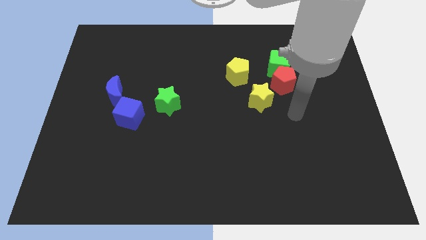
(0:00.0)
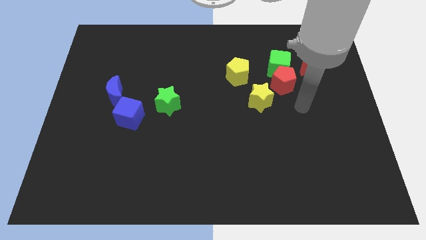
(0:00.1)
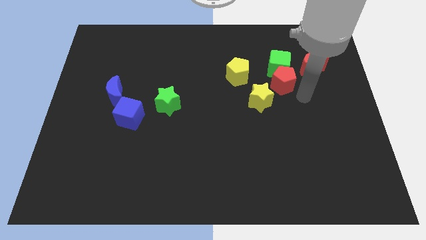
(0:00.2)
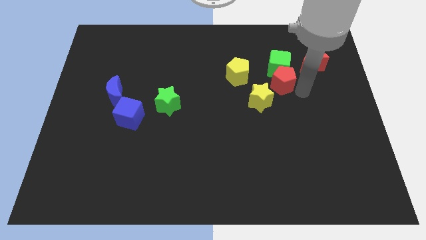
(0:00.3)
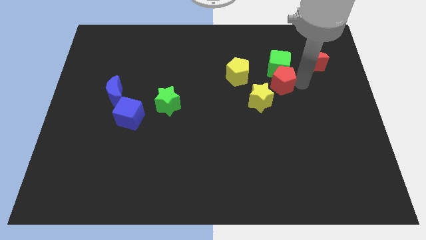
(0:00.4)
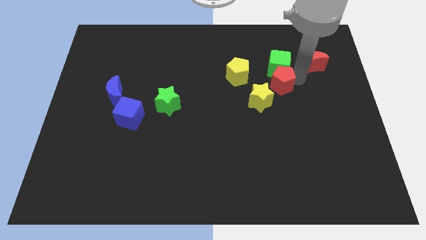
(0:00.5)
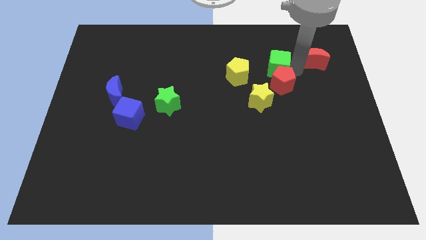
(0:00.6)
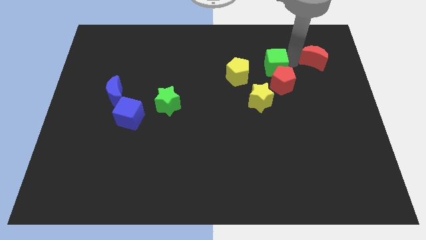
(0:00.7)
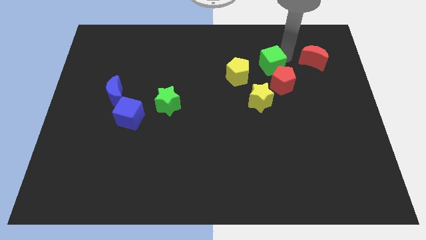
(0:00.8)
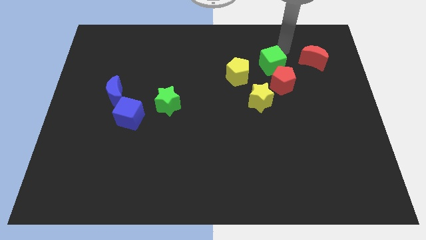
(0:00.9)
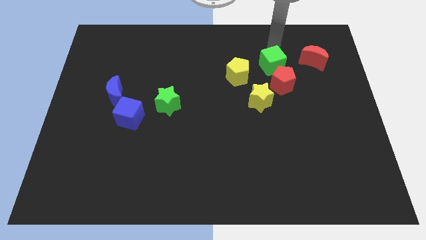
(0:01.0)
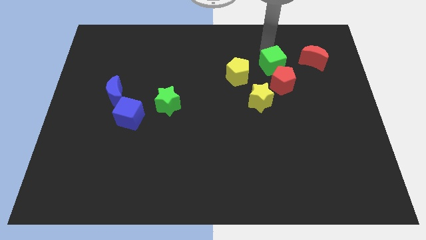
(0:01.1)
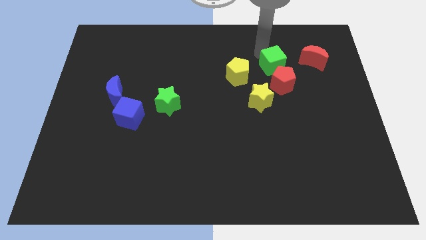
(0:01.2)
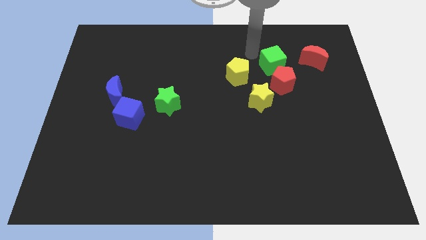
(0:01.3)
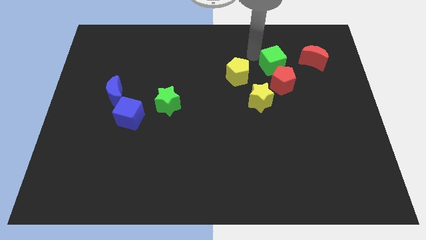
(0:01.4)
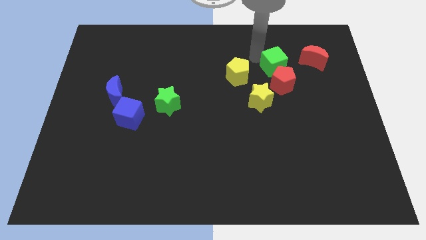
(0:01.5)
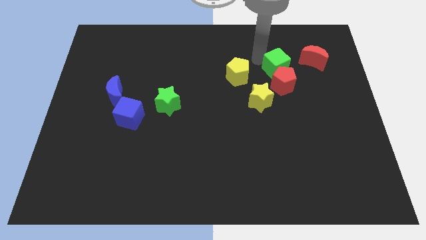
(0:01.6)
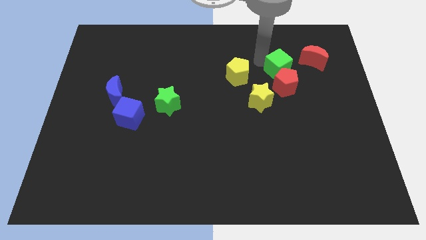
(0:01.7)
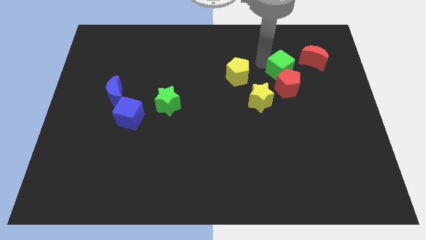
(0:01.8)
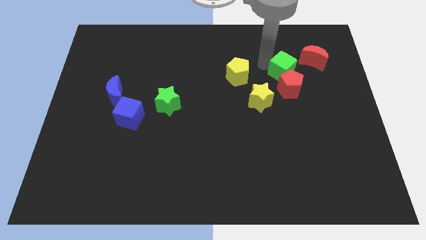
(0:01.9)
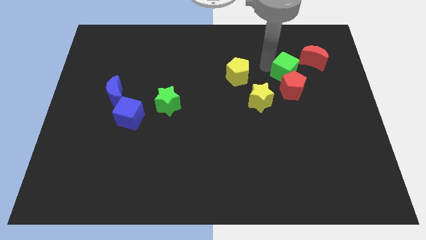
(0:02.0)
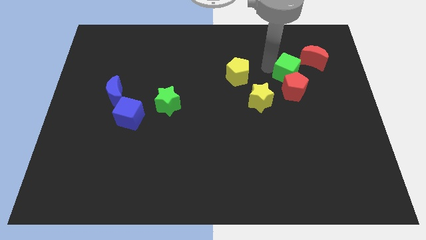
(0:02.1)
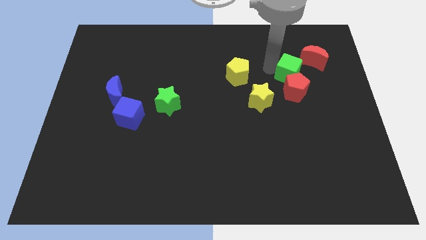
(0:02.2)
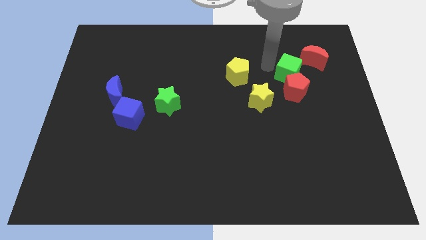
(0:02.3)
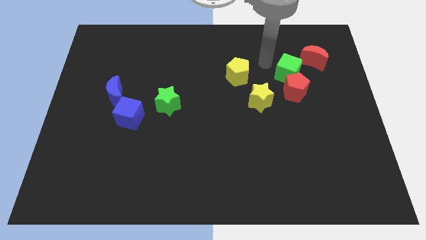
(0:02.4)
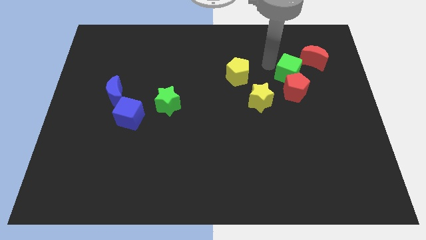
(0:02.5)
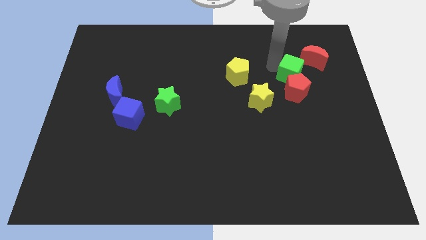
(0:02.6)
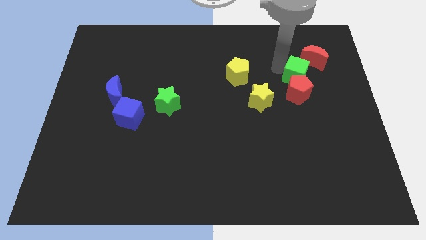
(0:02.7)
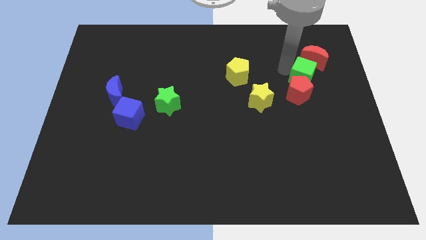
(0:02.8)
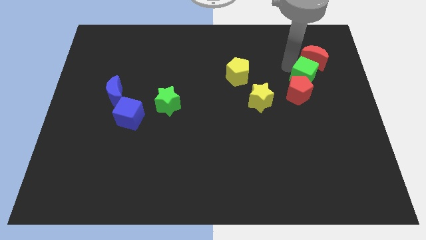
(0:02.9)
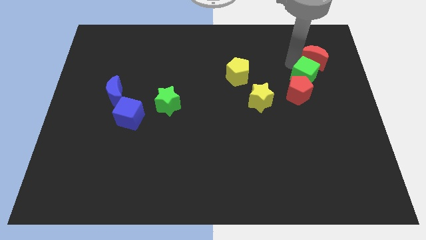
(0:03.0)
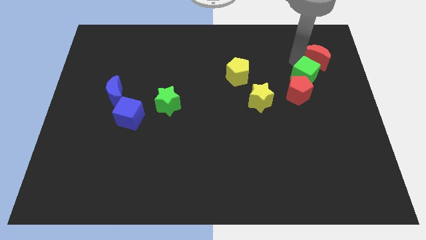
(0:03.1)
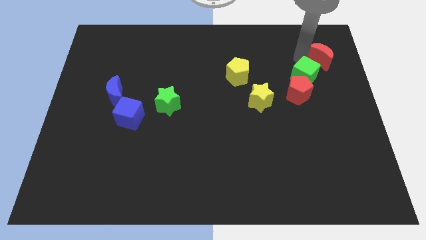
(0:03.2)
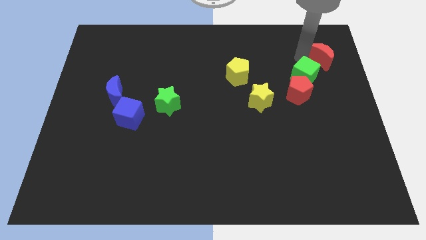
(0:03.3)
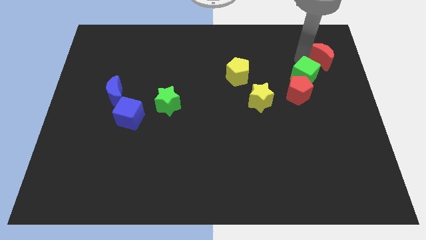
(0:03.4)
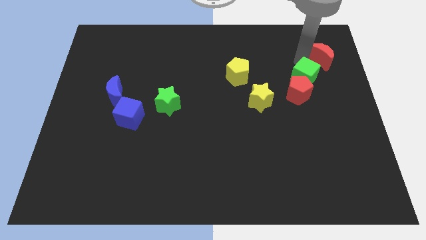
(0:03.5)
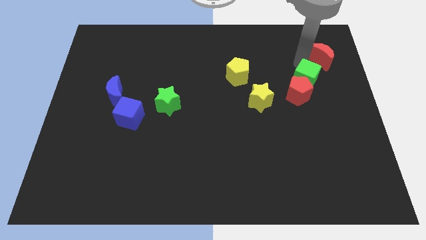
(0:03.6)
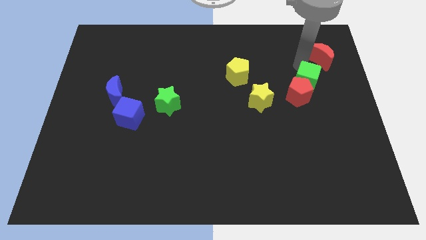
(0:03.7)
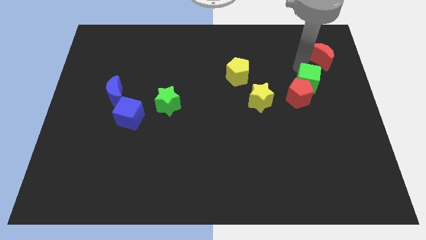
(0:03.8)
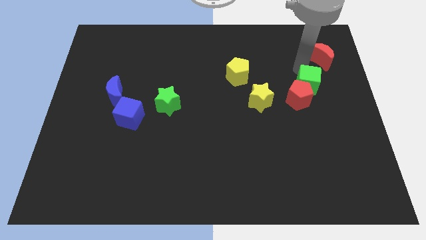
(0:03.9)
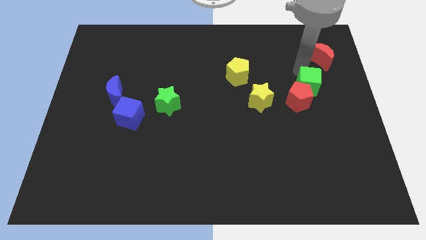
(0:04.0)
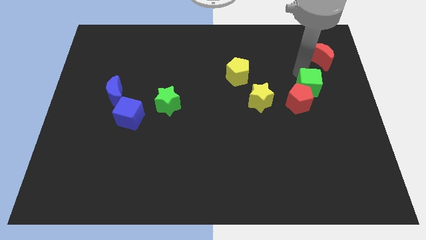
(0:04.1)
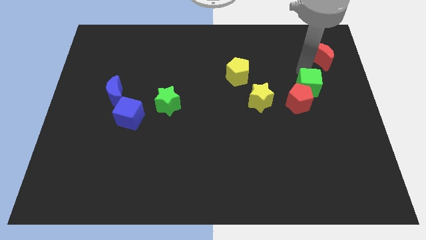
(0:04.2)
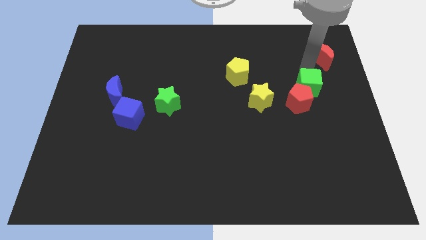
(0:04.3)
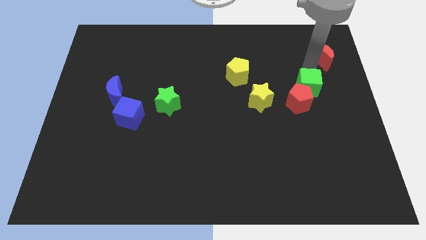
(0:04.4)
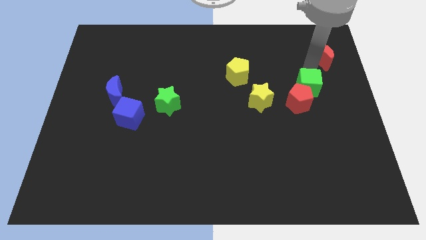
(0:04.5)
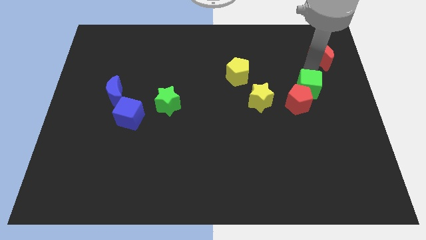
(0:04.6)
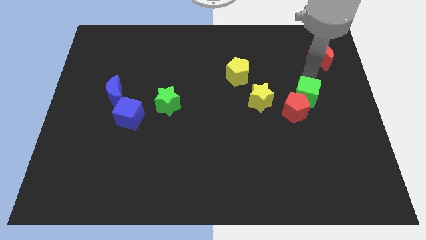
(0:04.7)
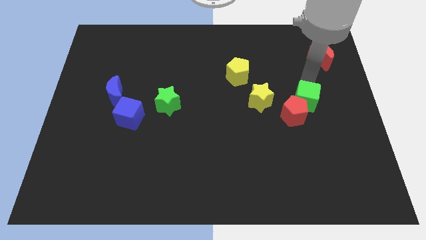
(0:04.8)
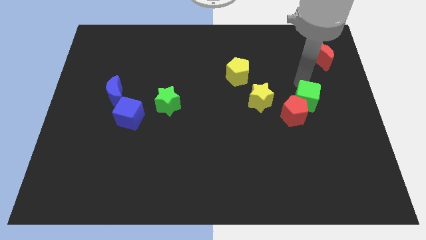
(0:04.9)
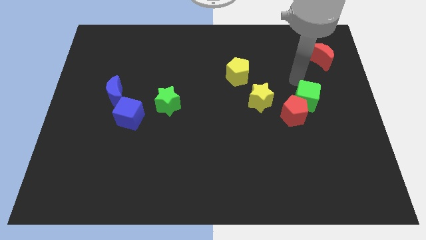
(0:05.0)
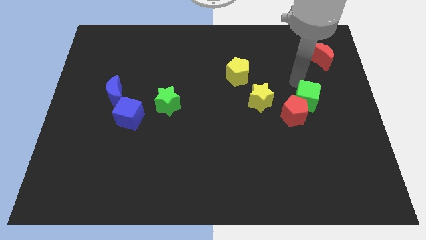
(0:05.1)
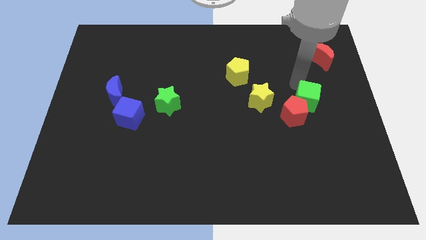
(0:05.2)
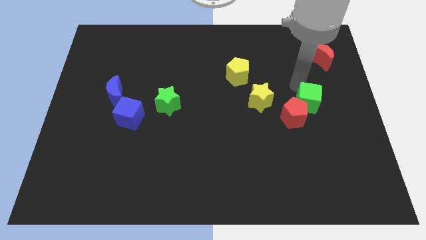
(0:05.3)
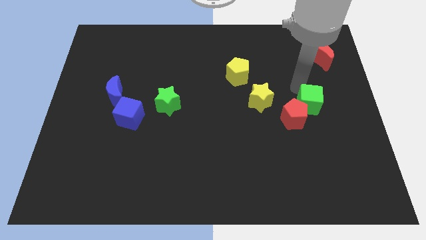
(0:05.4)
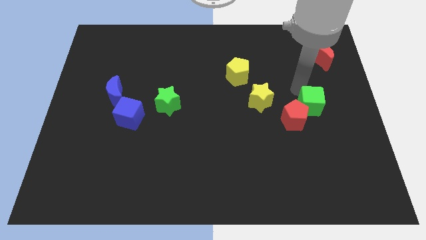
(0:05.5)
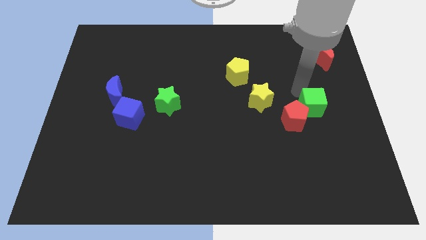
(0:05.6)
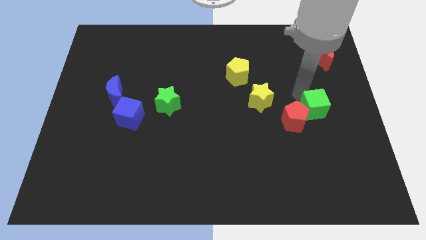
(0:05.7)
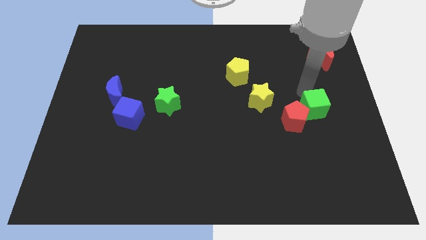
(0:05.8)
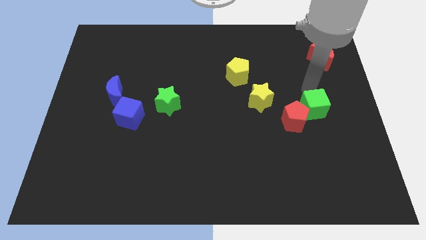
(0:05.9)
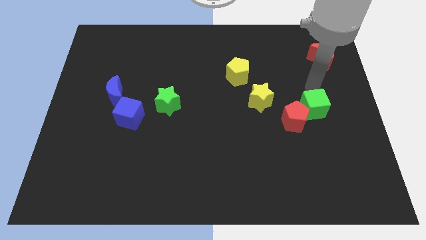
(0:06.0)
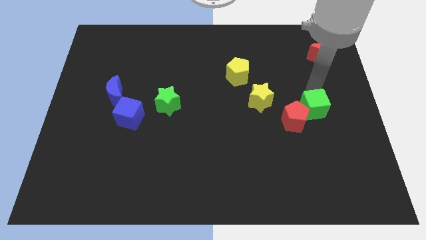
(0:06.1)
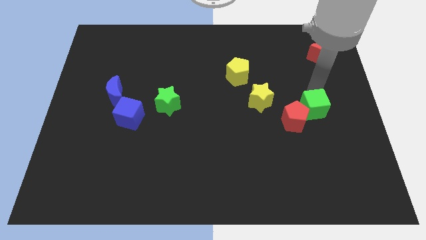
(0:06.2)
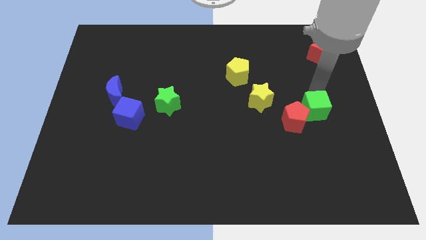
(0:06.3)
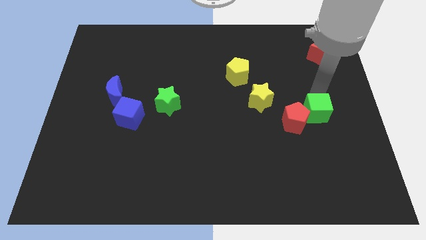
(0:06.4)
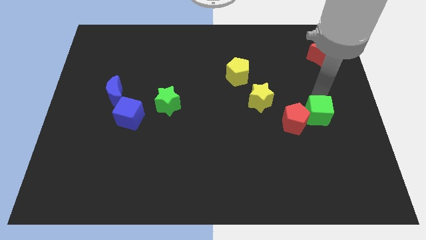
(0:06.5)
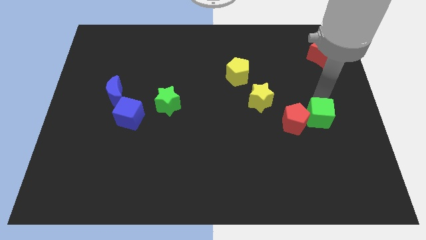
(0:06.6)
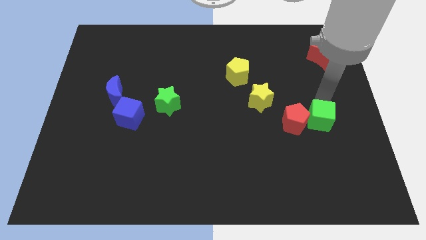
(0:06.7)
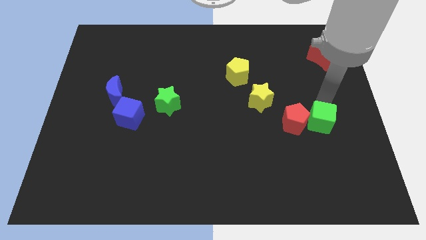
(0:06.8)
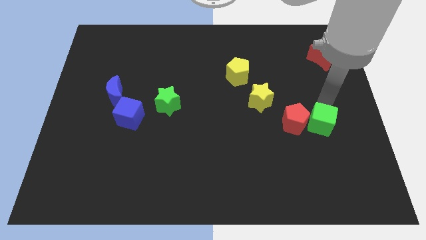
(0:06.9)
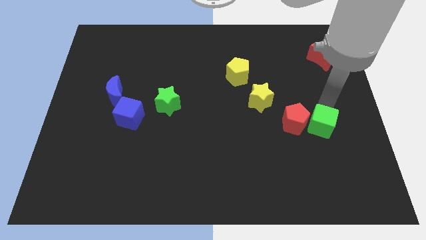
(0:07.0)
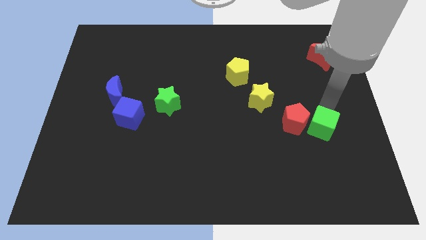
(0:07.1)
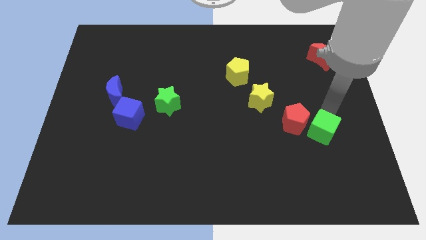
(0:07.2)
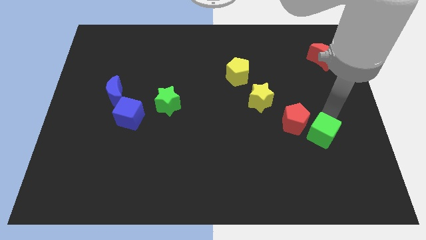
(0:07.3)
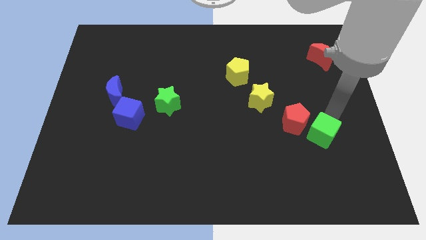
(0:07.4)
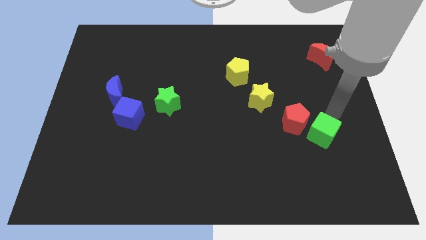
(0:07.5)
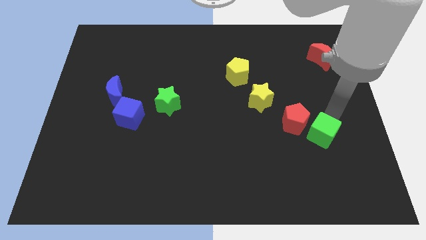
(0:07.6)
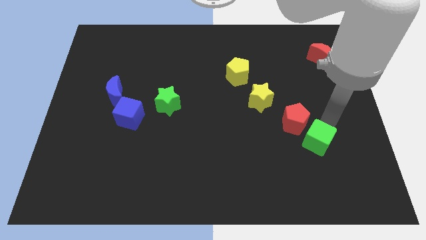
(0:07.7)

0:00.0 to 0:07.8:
slide the green cube down
